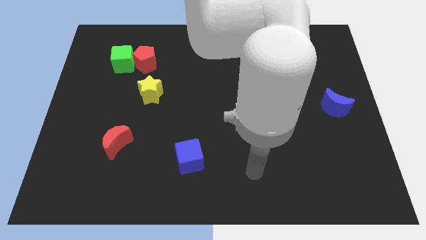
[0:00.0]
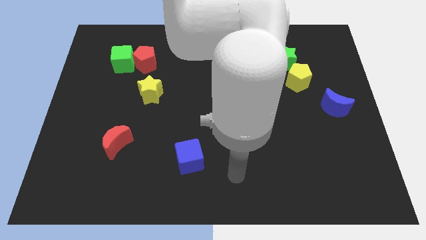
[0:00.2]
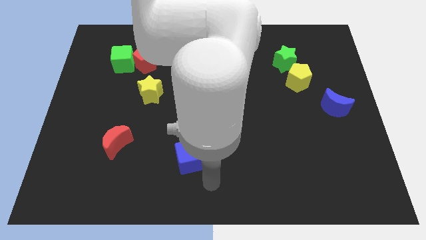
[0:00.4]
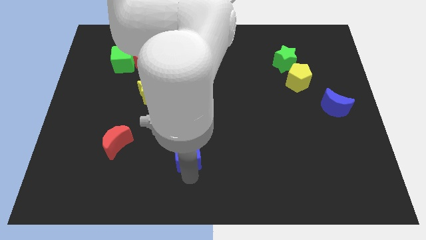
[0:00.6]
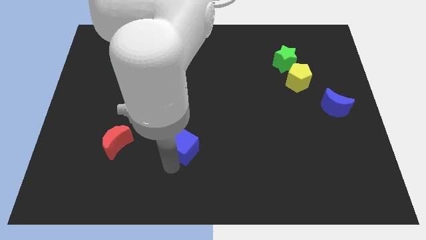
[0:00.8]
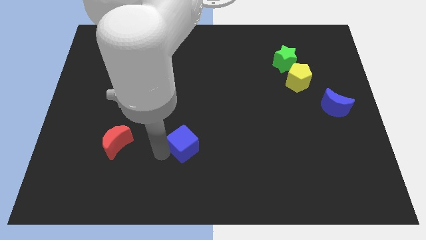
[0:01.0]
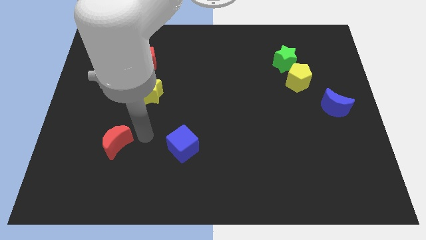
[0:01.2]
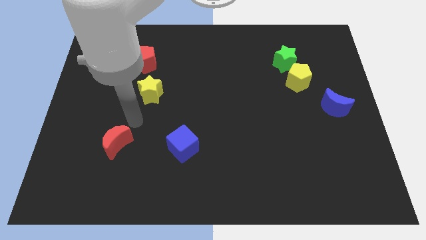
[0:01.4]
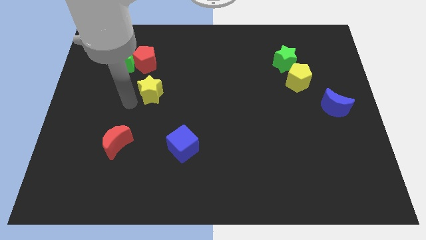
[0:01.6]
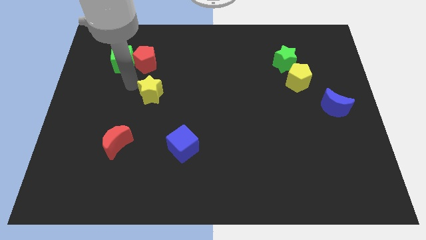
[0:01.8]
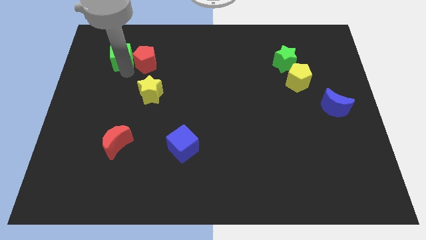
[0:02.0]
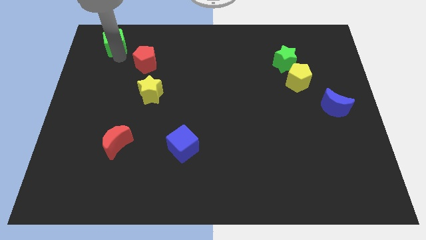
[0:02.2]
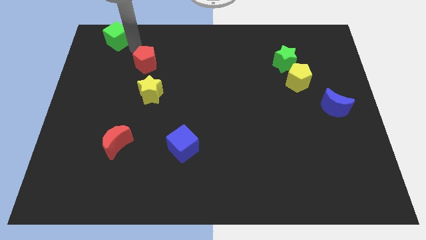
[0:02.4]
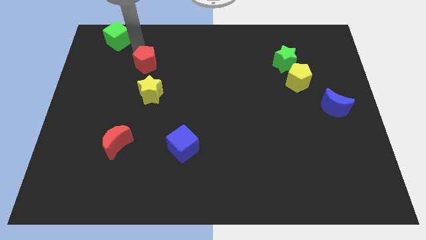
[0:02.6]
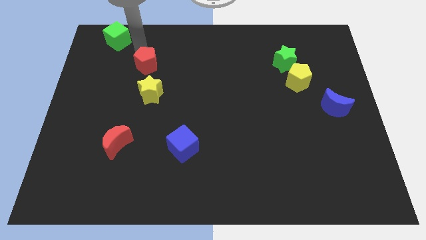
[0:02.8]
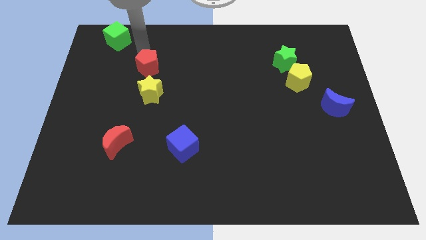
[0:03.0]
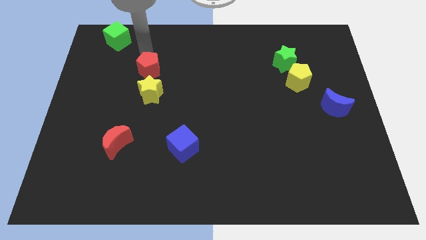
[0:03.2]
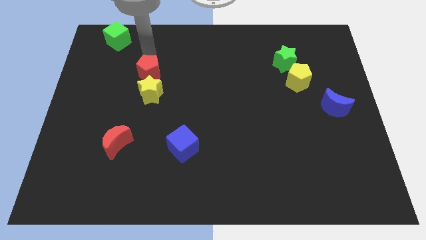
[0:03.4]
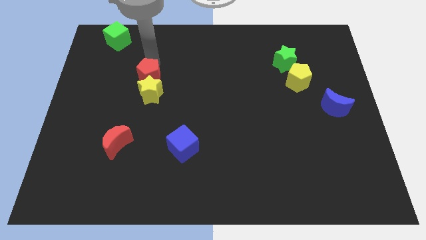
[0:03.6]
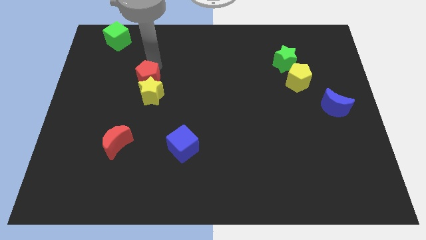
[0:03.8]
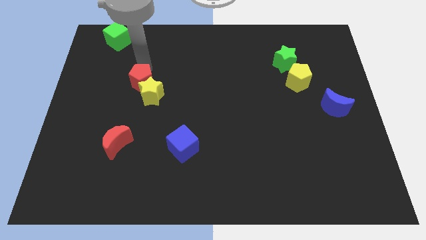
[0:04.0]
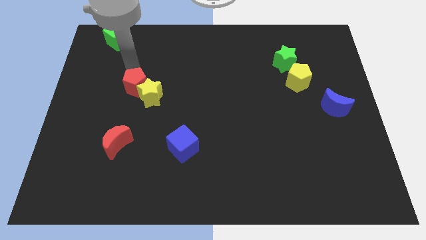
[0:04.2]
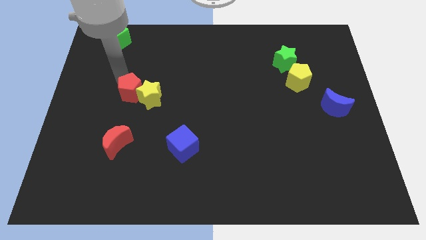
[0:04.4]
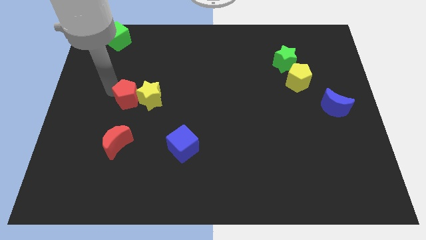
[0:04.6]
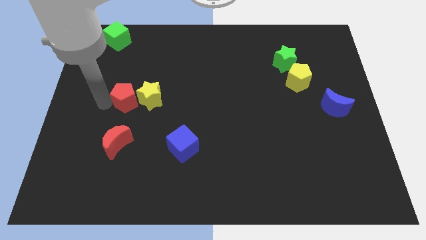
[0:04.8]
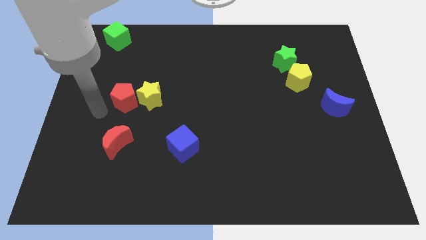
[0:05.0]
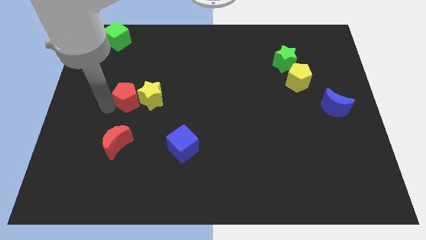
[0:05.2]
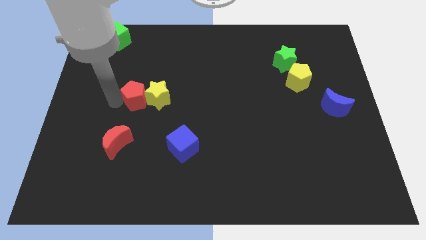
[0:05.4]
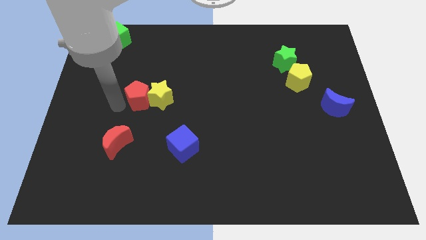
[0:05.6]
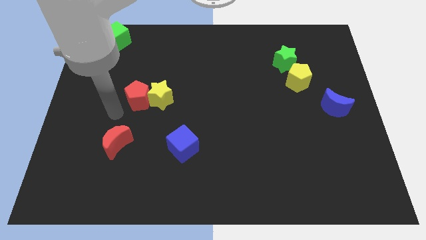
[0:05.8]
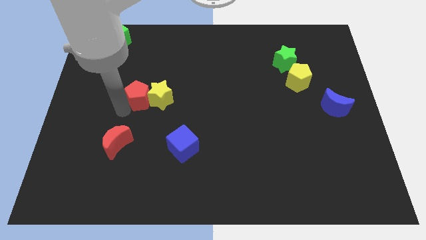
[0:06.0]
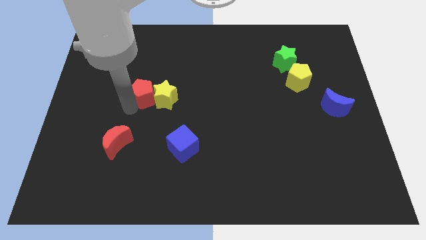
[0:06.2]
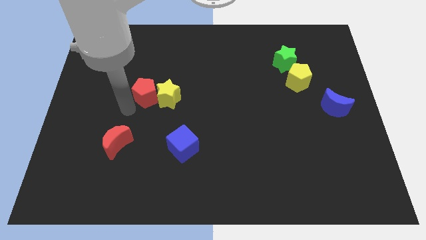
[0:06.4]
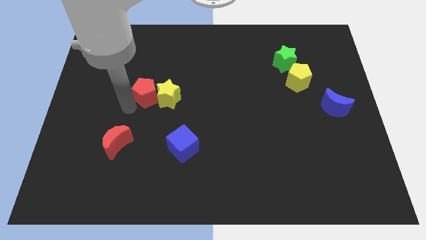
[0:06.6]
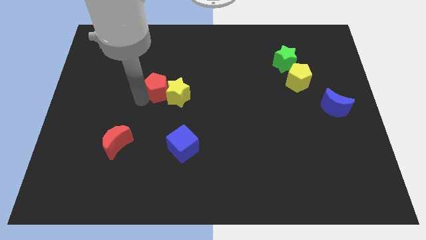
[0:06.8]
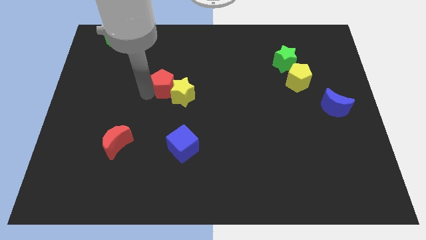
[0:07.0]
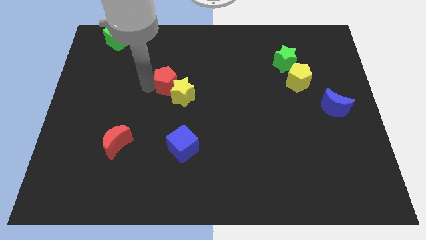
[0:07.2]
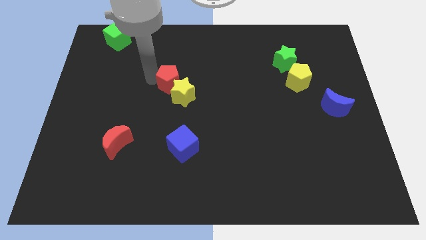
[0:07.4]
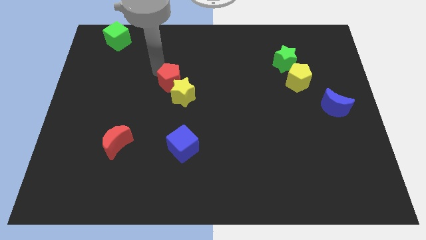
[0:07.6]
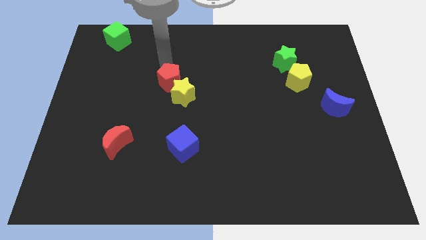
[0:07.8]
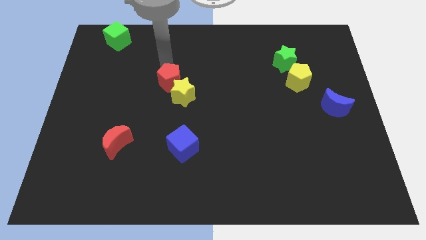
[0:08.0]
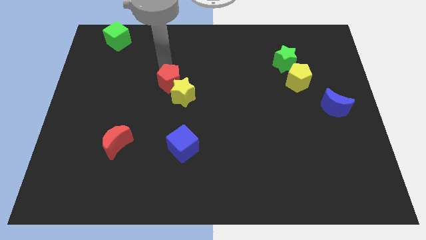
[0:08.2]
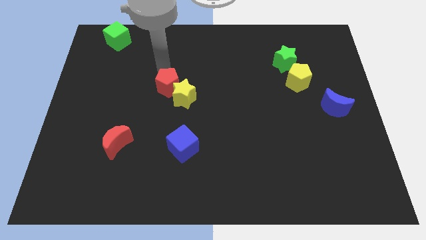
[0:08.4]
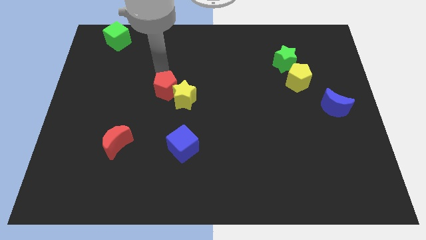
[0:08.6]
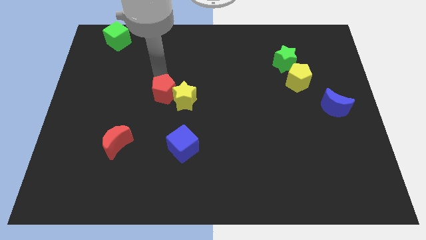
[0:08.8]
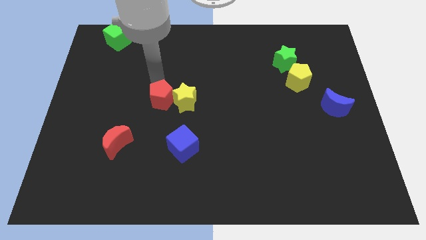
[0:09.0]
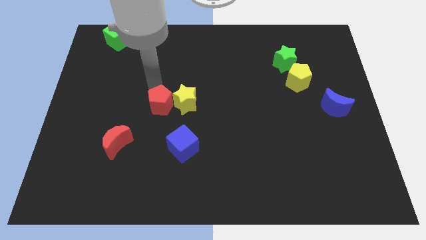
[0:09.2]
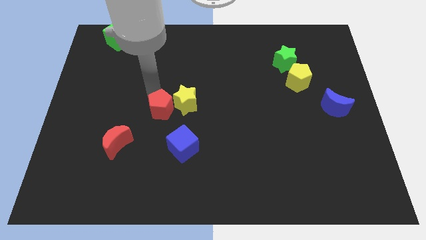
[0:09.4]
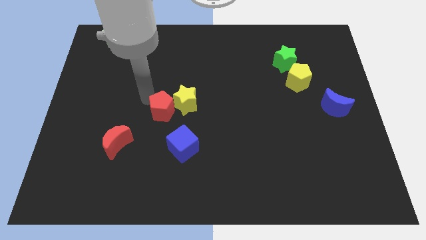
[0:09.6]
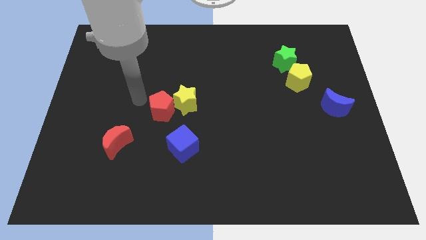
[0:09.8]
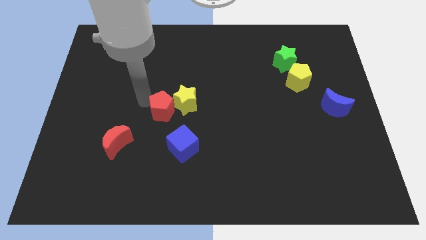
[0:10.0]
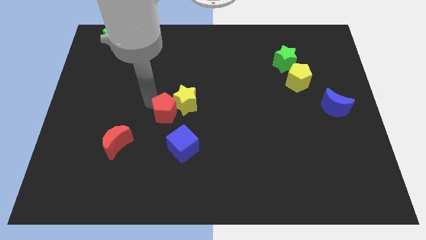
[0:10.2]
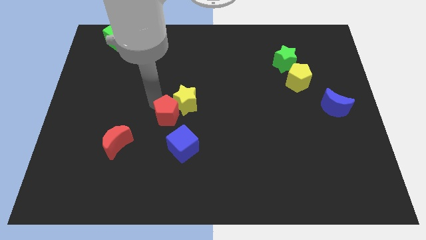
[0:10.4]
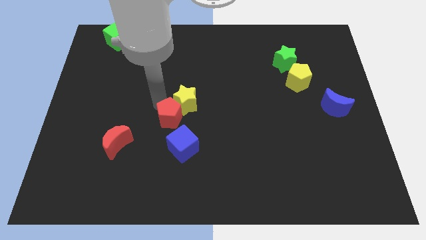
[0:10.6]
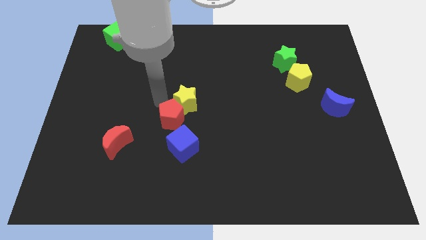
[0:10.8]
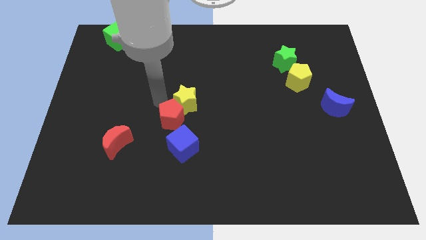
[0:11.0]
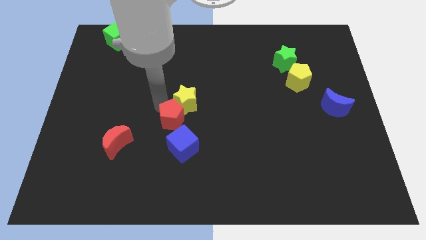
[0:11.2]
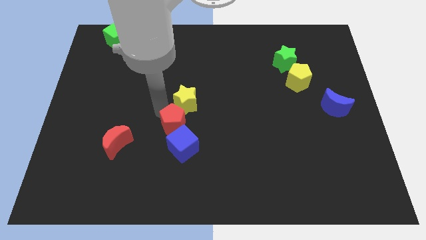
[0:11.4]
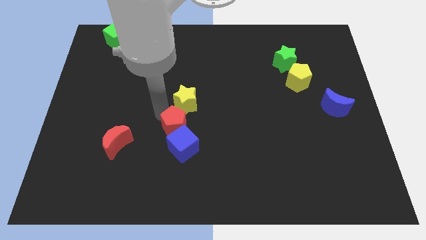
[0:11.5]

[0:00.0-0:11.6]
put the red pentagon next to the blue cube

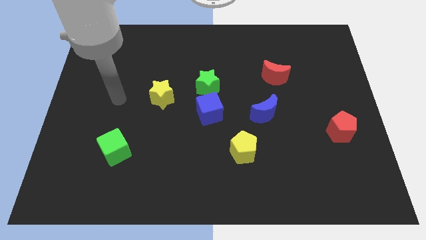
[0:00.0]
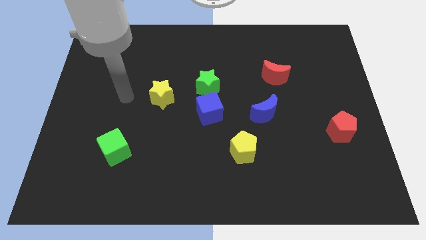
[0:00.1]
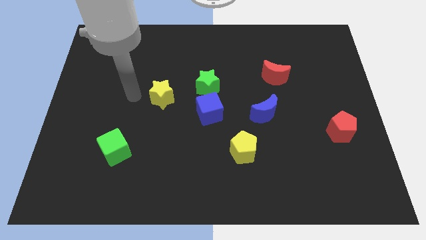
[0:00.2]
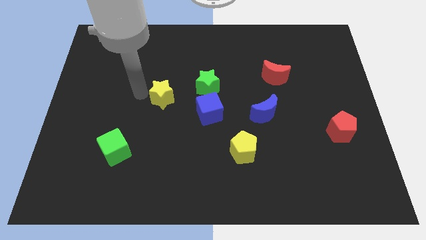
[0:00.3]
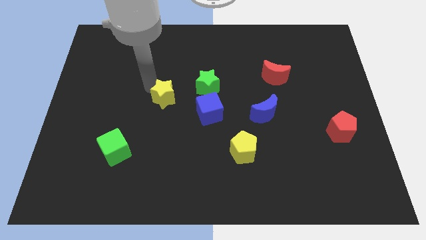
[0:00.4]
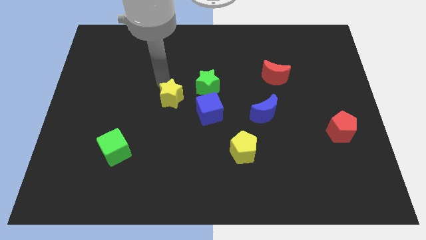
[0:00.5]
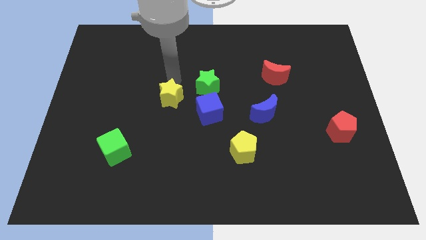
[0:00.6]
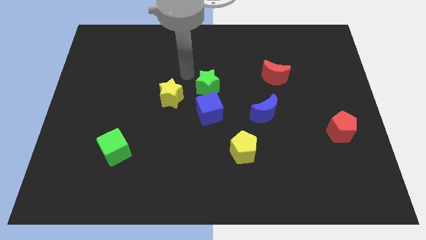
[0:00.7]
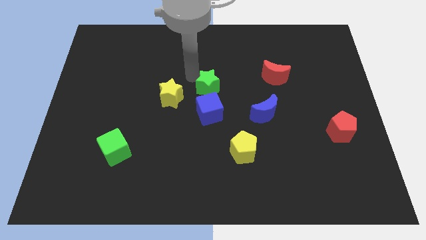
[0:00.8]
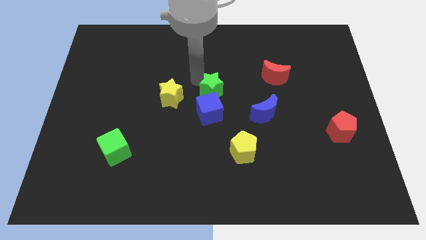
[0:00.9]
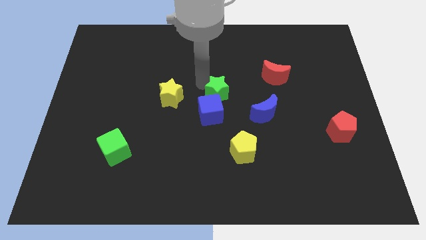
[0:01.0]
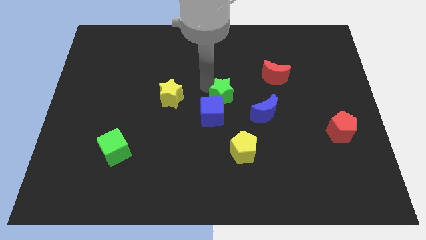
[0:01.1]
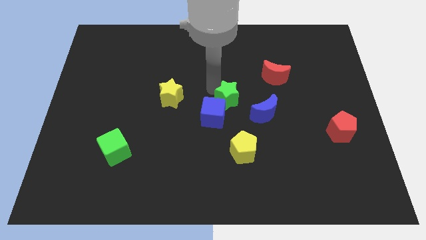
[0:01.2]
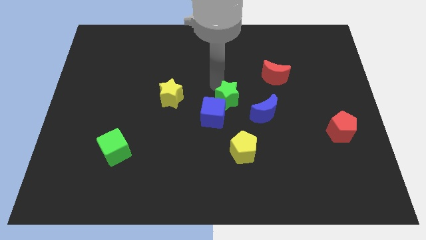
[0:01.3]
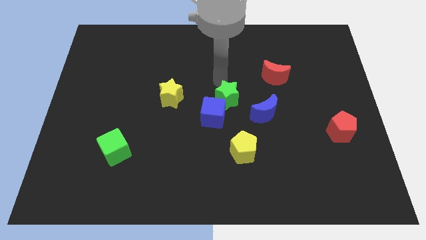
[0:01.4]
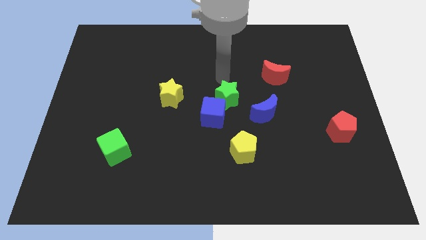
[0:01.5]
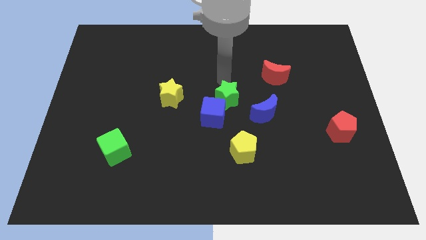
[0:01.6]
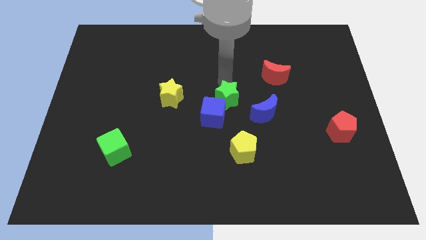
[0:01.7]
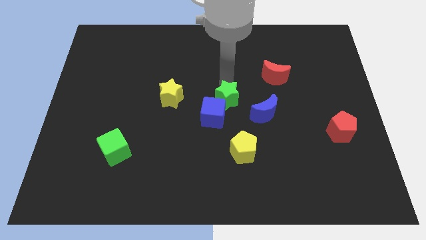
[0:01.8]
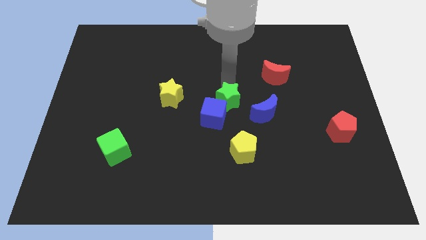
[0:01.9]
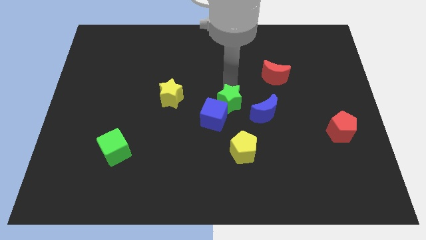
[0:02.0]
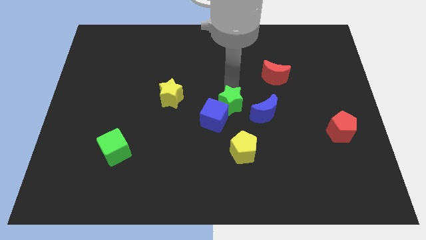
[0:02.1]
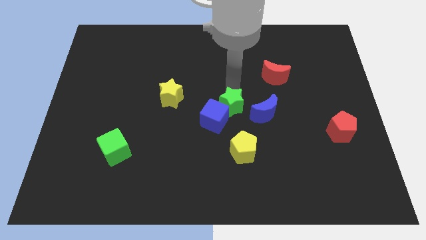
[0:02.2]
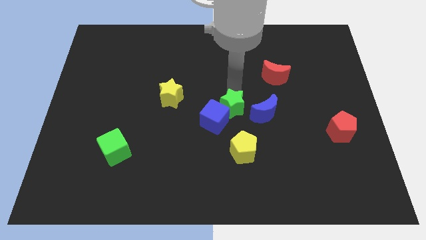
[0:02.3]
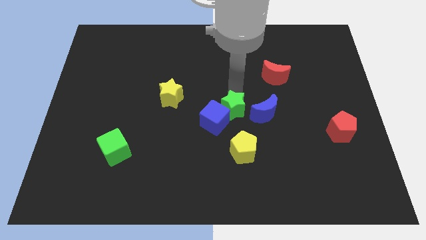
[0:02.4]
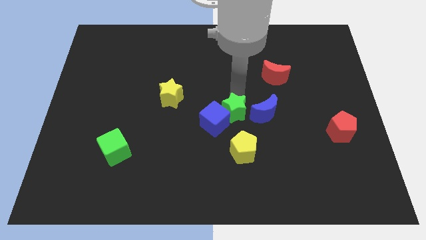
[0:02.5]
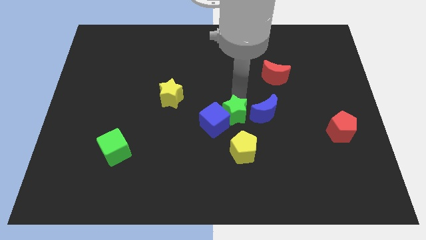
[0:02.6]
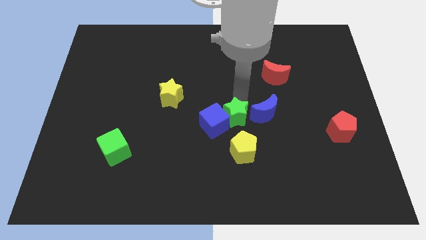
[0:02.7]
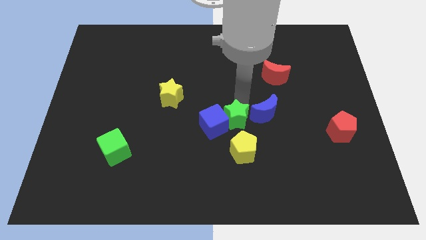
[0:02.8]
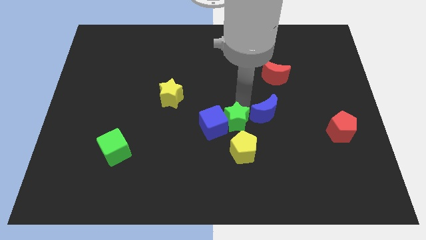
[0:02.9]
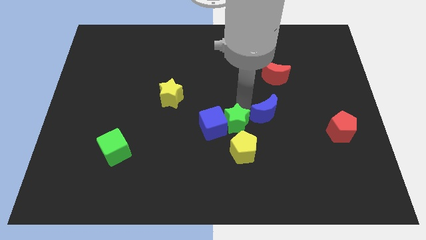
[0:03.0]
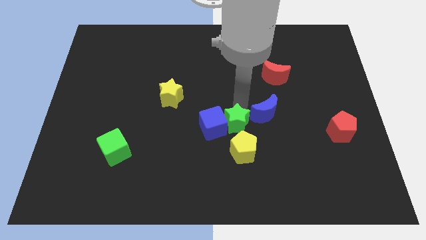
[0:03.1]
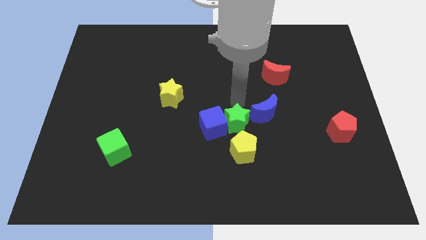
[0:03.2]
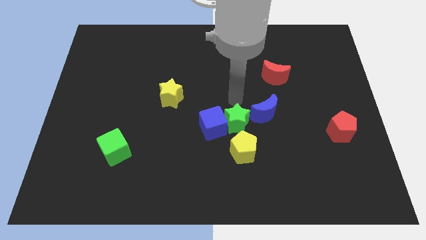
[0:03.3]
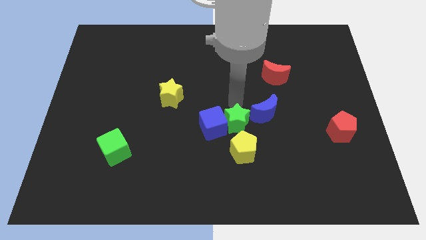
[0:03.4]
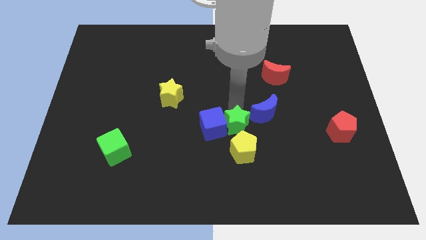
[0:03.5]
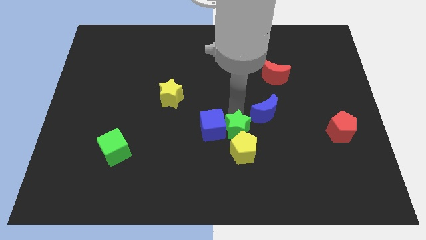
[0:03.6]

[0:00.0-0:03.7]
move the green star next to the yellow pentagon
